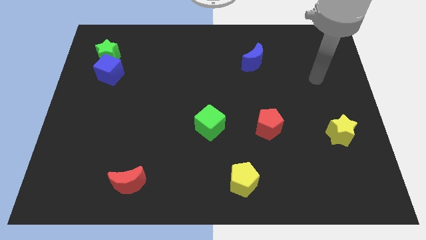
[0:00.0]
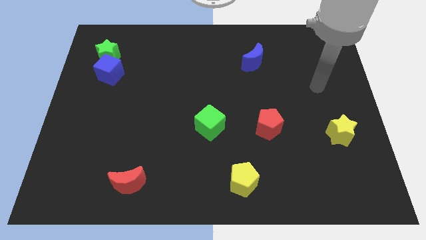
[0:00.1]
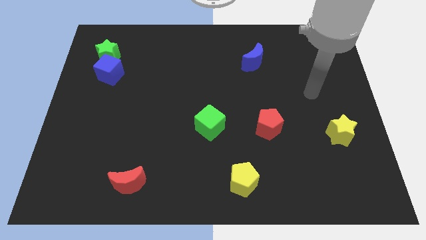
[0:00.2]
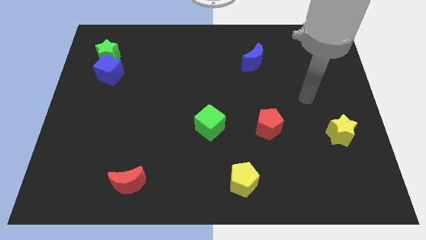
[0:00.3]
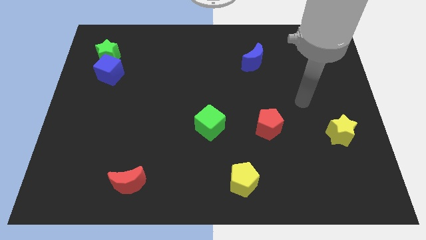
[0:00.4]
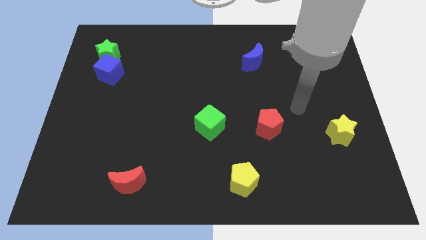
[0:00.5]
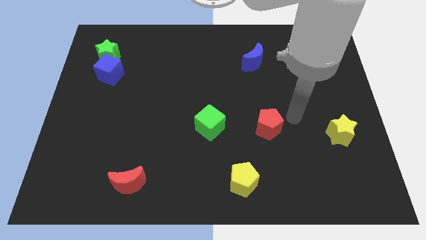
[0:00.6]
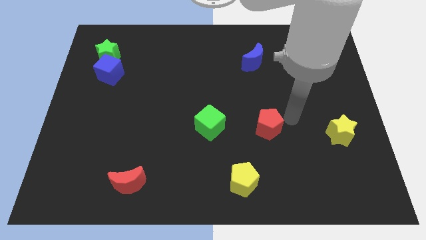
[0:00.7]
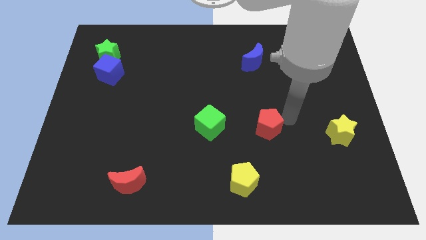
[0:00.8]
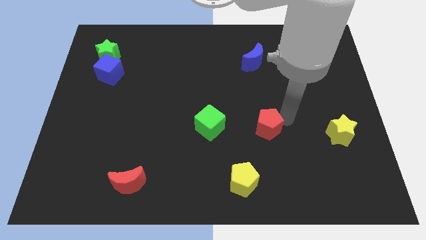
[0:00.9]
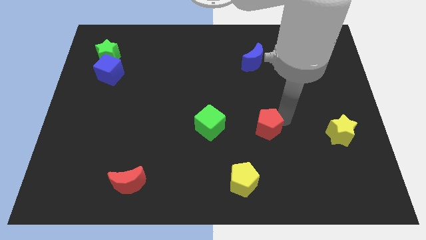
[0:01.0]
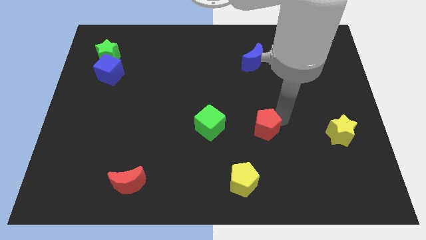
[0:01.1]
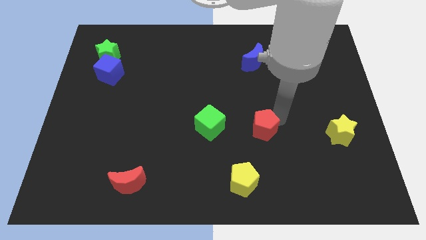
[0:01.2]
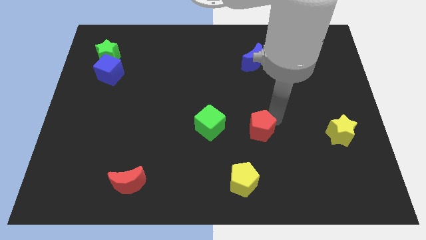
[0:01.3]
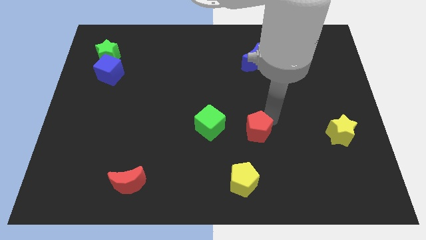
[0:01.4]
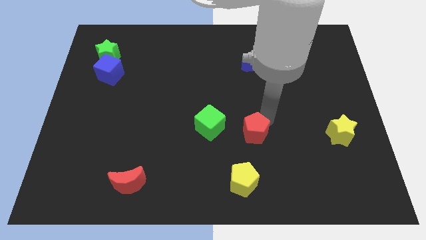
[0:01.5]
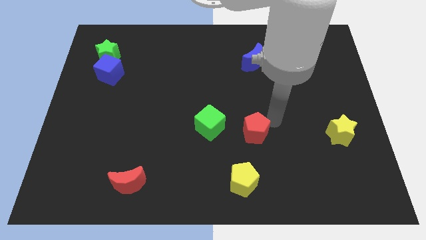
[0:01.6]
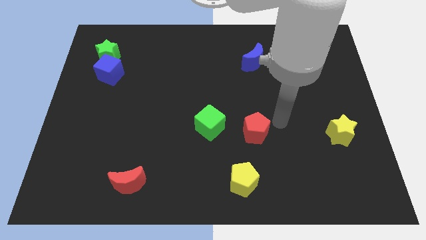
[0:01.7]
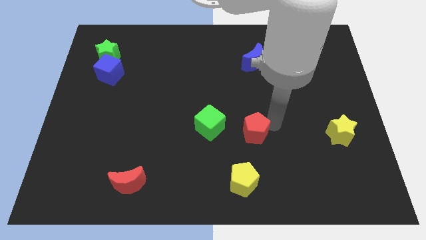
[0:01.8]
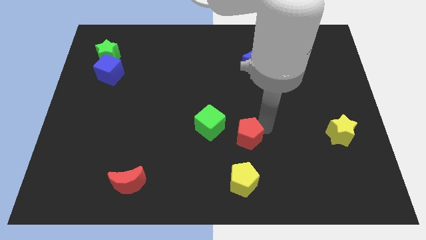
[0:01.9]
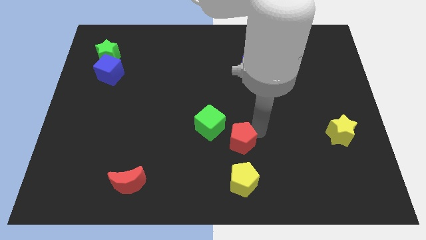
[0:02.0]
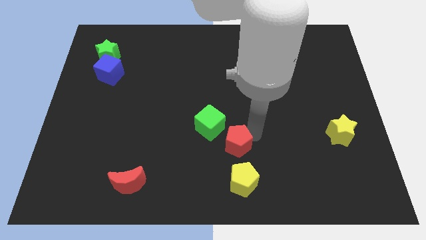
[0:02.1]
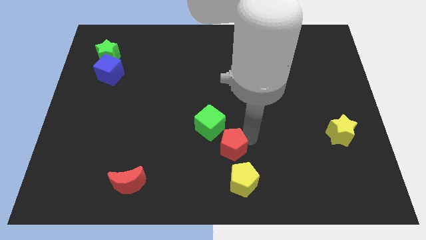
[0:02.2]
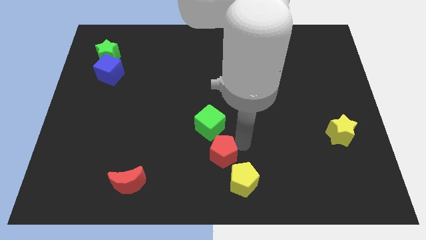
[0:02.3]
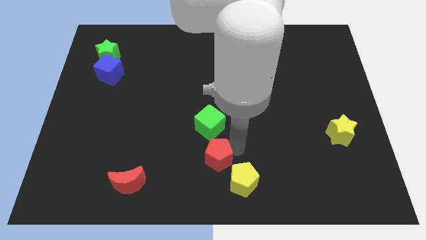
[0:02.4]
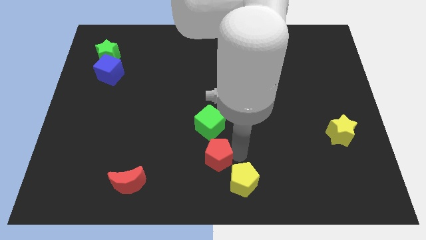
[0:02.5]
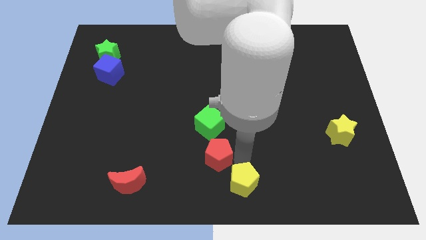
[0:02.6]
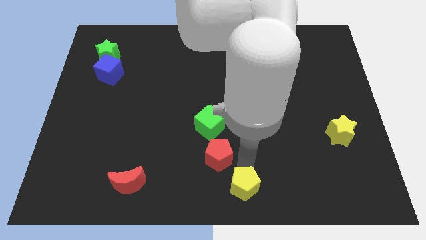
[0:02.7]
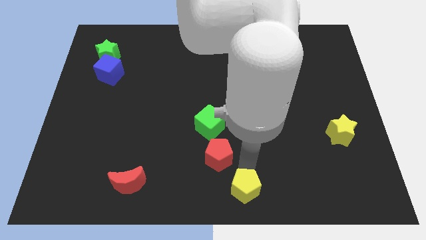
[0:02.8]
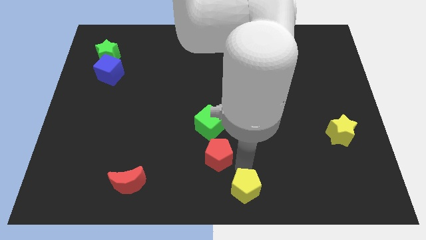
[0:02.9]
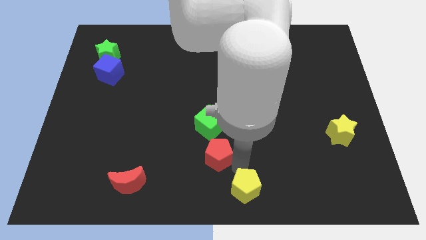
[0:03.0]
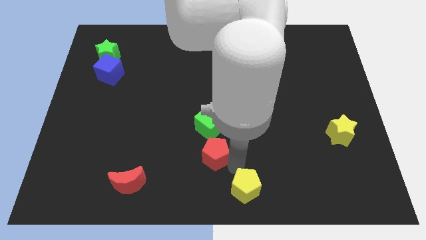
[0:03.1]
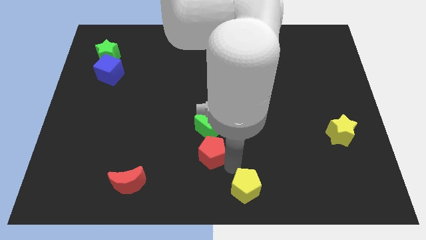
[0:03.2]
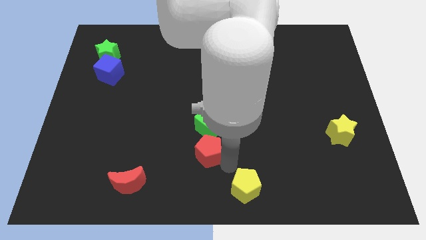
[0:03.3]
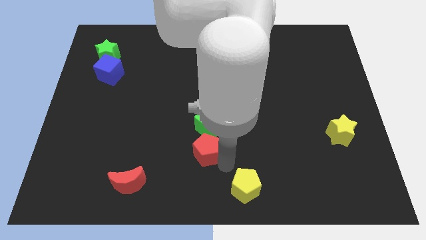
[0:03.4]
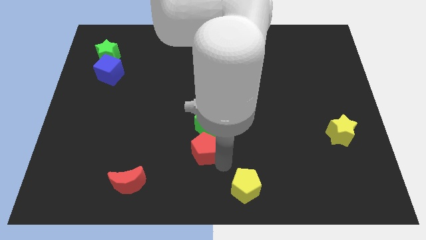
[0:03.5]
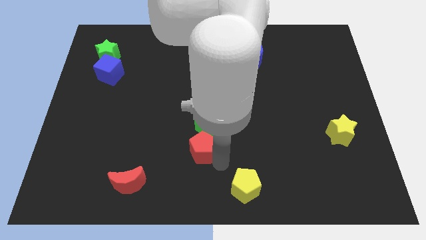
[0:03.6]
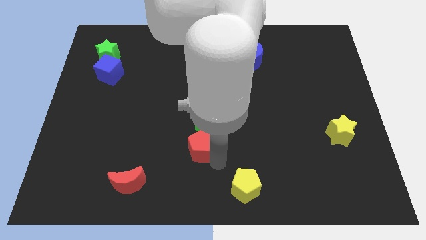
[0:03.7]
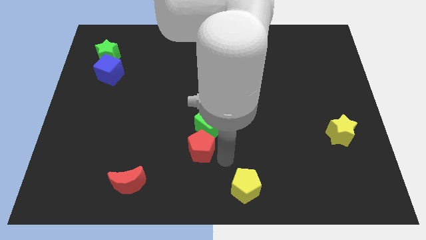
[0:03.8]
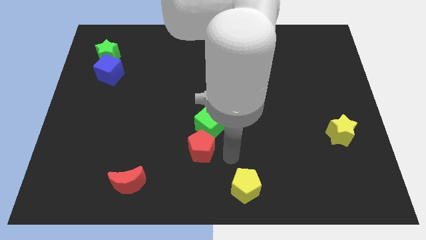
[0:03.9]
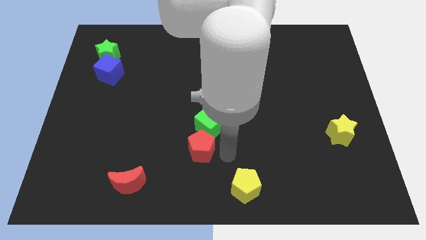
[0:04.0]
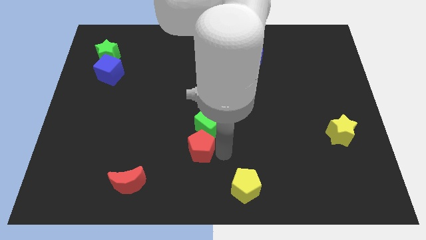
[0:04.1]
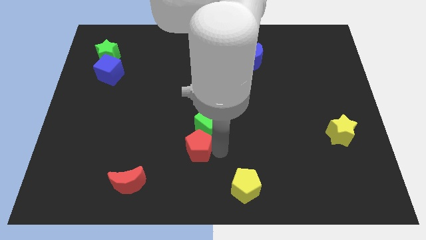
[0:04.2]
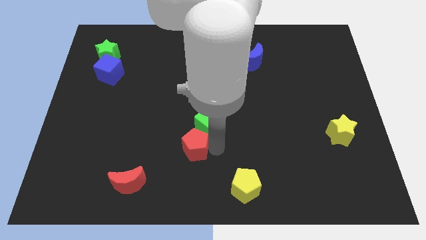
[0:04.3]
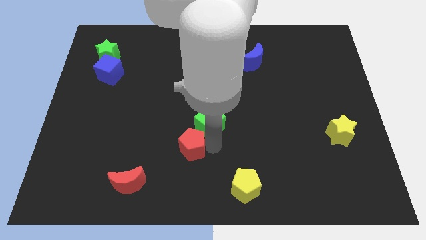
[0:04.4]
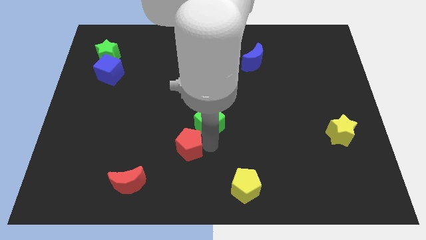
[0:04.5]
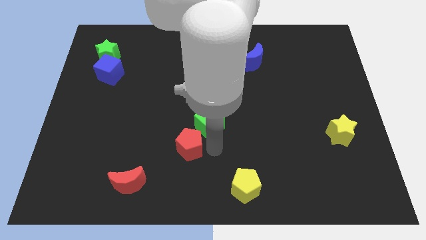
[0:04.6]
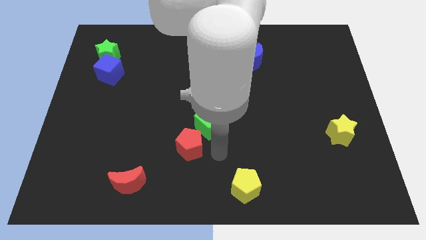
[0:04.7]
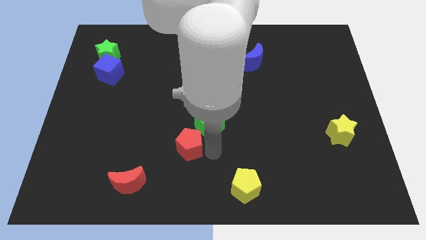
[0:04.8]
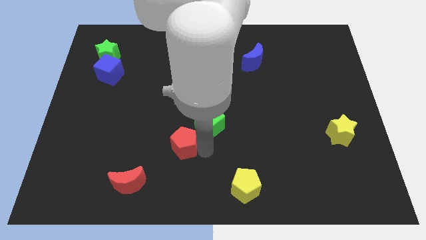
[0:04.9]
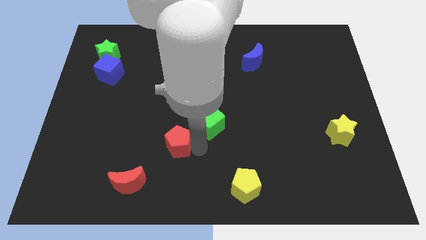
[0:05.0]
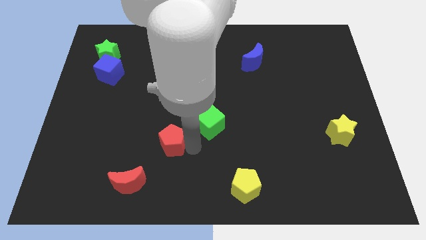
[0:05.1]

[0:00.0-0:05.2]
slide the red pentagon left

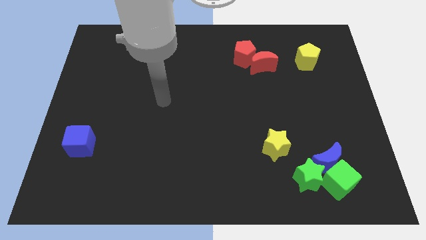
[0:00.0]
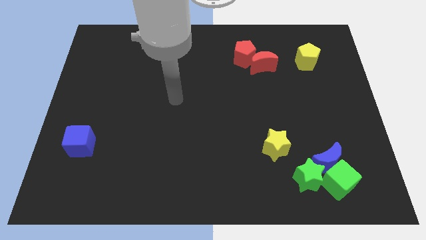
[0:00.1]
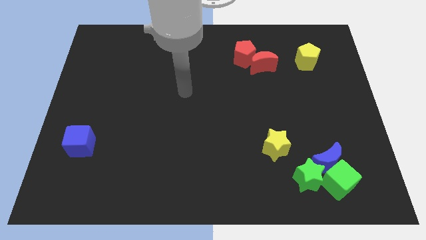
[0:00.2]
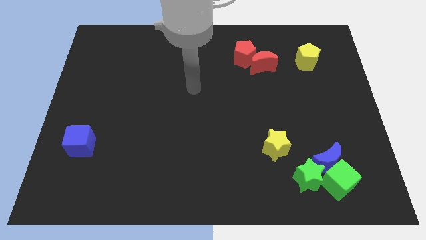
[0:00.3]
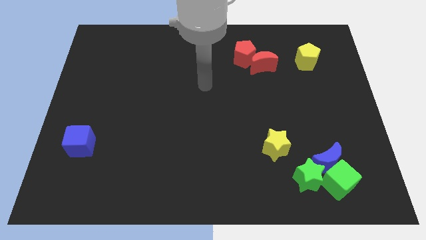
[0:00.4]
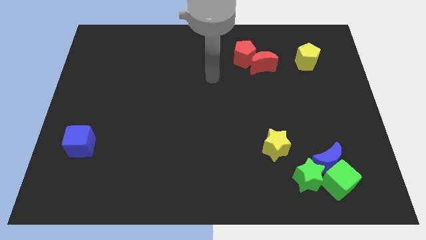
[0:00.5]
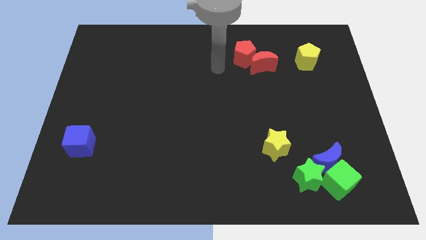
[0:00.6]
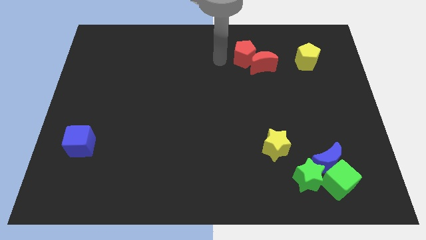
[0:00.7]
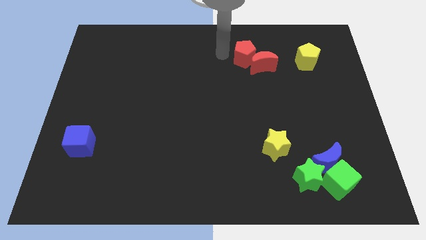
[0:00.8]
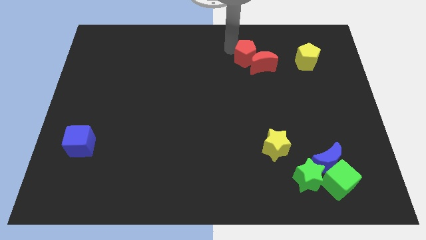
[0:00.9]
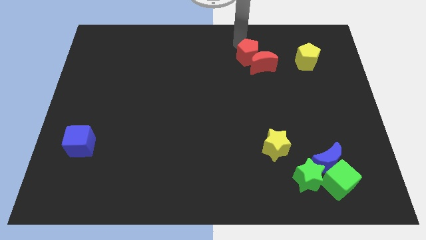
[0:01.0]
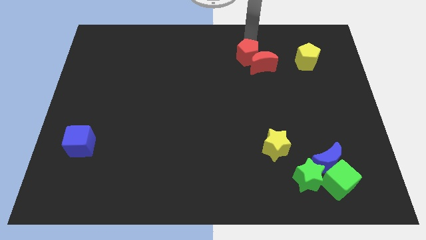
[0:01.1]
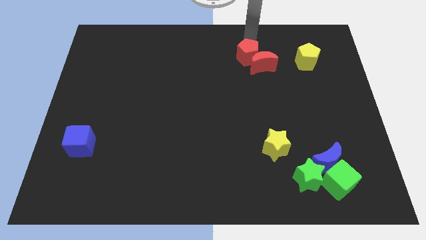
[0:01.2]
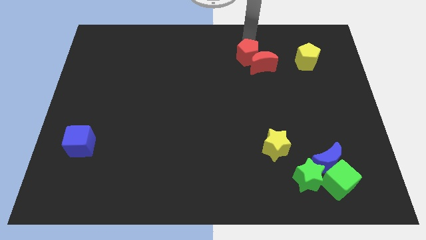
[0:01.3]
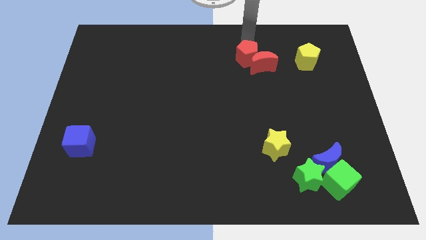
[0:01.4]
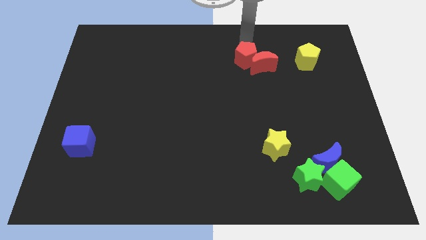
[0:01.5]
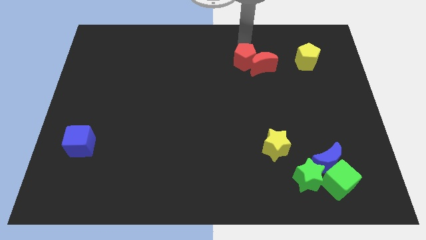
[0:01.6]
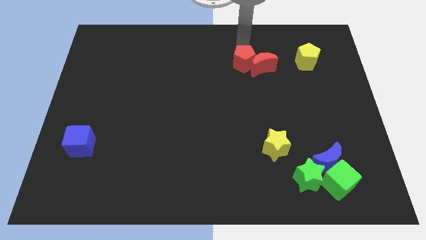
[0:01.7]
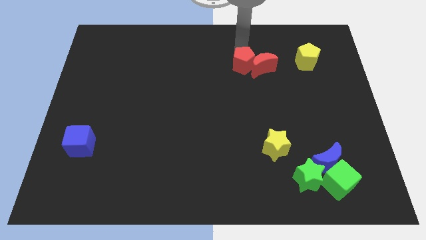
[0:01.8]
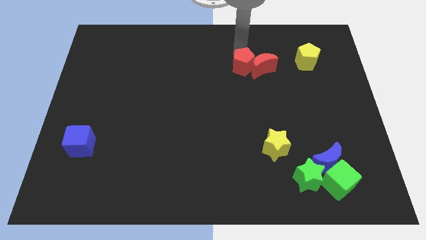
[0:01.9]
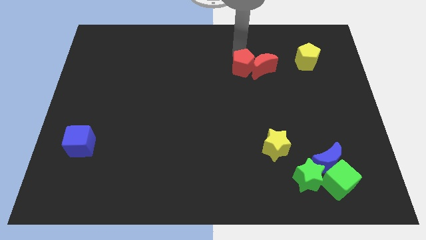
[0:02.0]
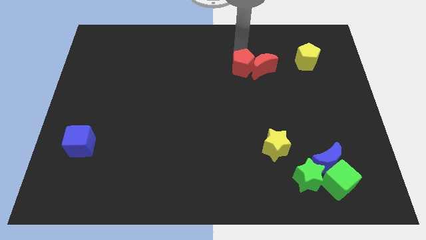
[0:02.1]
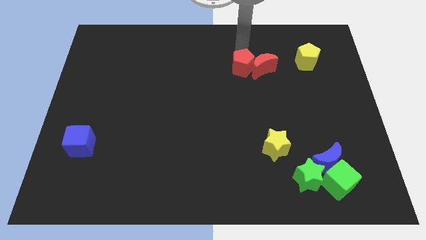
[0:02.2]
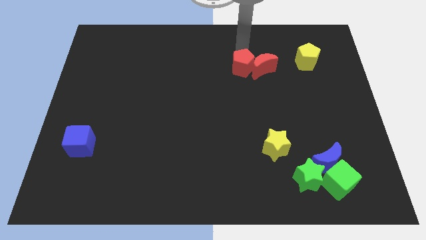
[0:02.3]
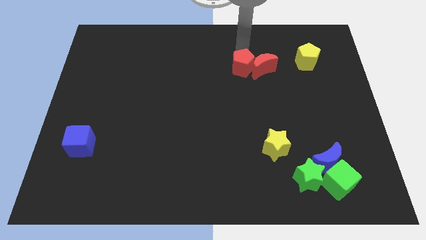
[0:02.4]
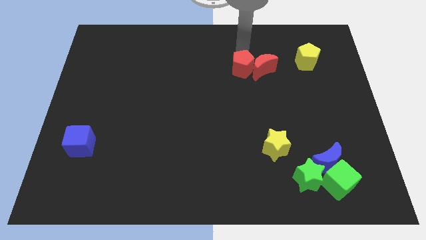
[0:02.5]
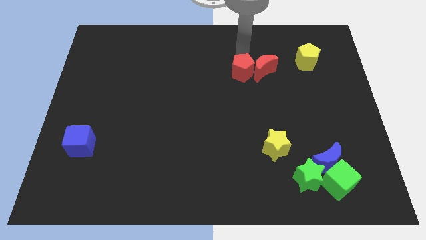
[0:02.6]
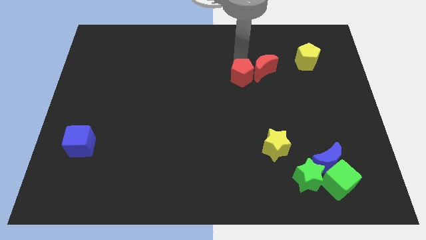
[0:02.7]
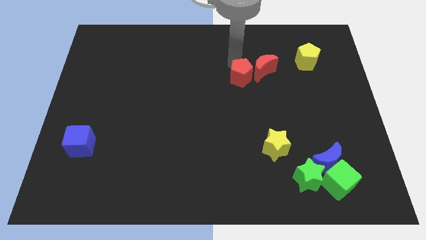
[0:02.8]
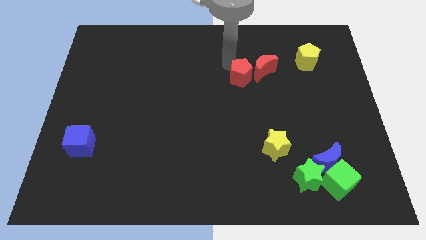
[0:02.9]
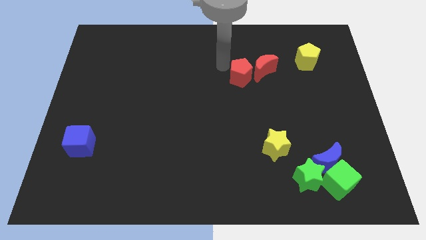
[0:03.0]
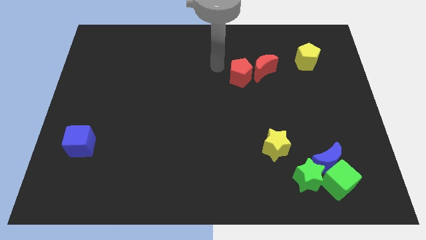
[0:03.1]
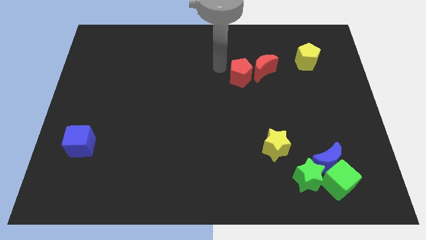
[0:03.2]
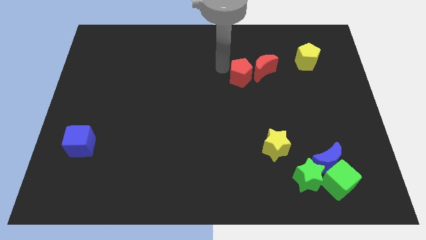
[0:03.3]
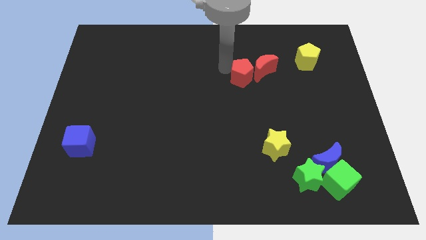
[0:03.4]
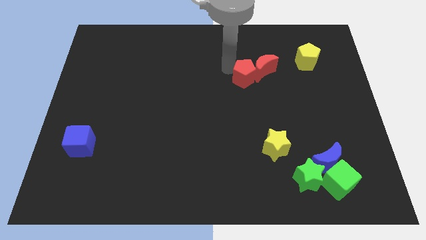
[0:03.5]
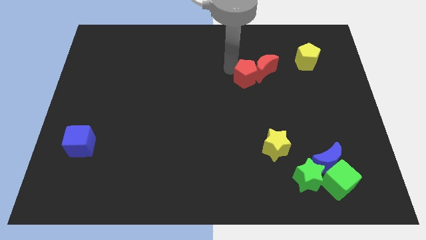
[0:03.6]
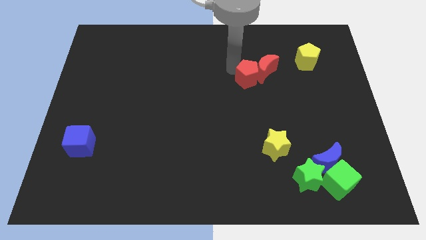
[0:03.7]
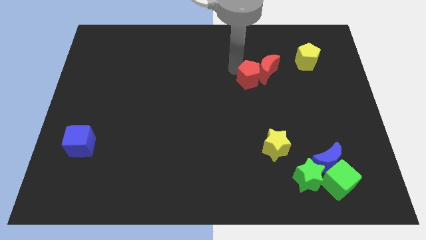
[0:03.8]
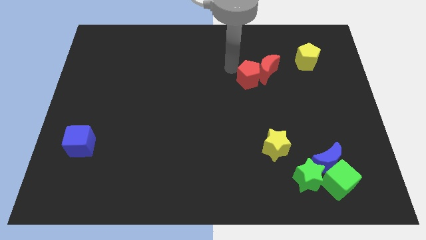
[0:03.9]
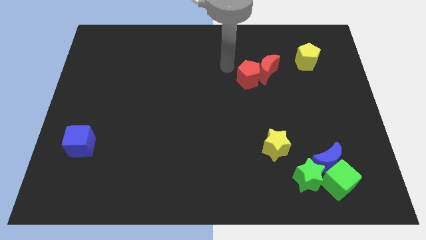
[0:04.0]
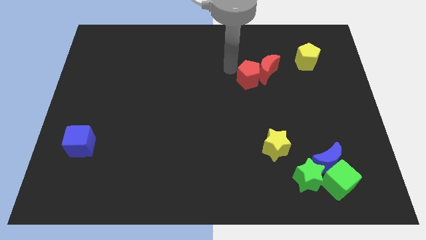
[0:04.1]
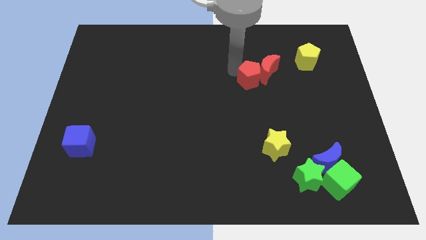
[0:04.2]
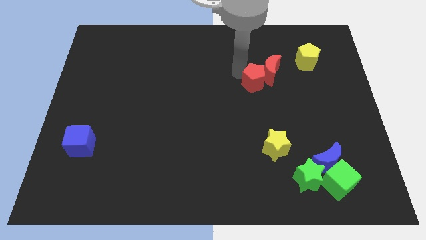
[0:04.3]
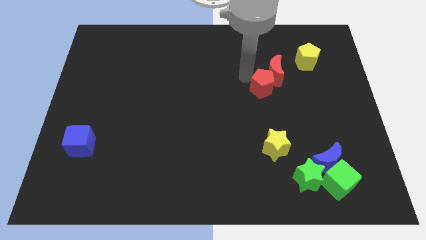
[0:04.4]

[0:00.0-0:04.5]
slightly push the red pentagon down and right
